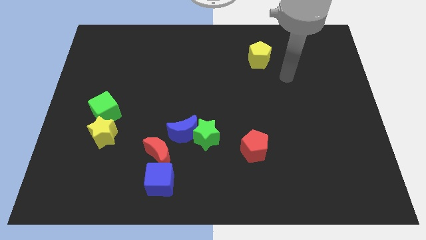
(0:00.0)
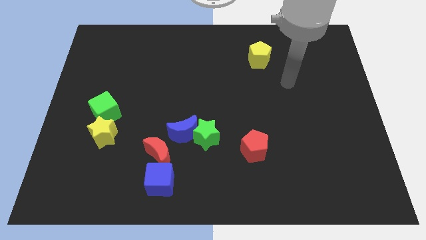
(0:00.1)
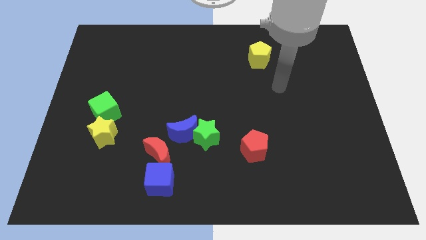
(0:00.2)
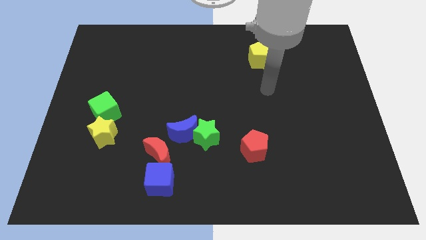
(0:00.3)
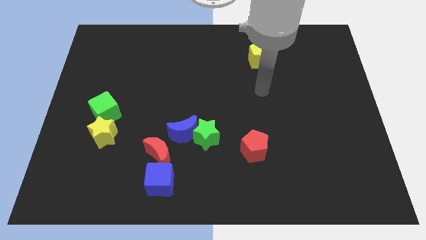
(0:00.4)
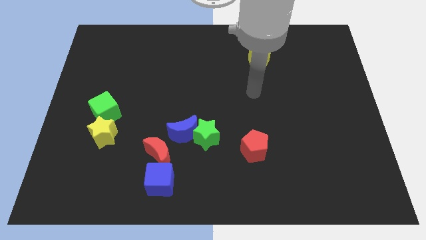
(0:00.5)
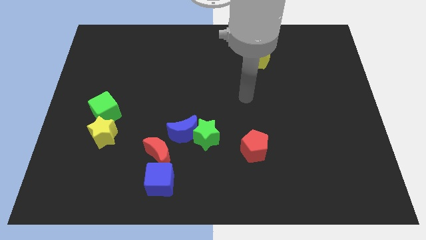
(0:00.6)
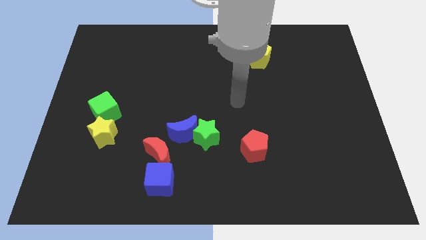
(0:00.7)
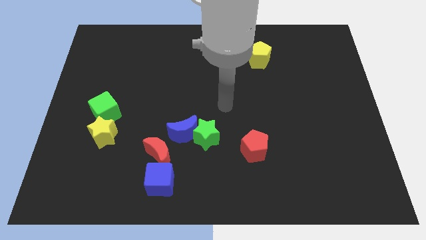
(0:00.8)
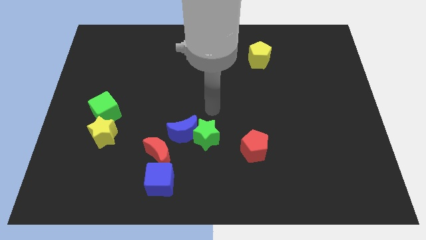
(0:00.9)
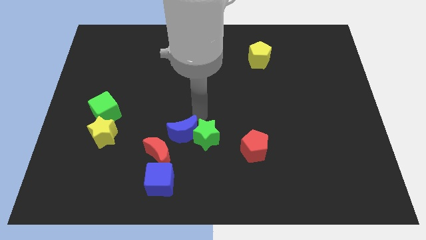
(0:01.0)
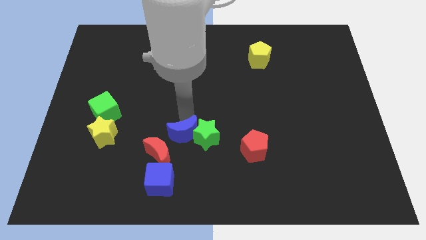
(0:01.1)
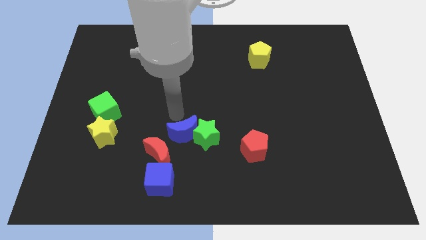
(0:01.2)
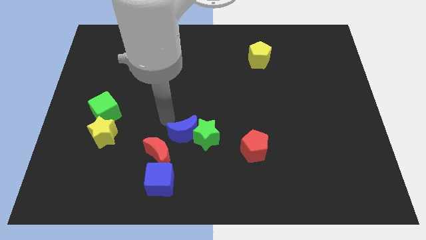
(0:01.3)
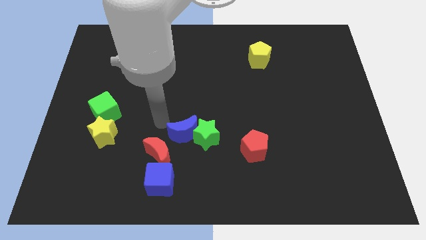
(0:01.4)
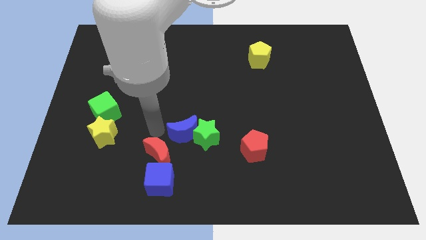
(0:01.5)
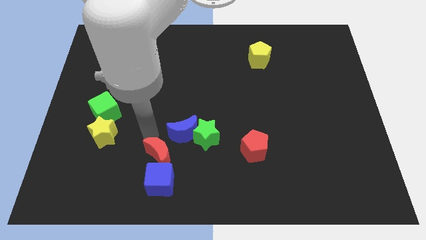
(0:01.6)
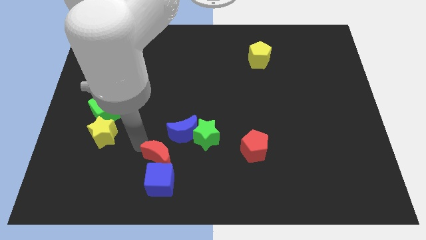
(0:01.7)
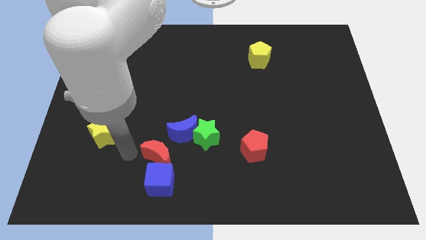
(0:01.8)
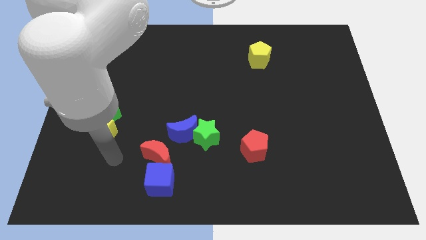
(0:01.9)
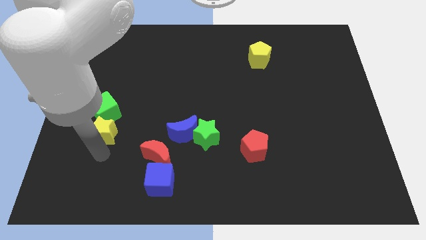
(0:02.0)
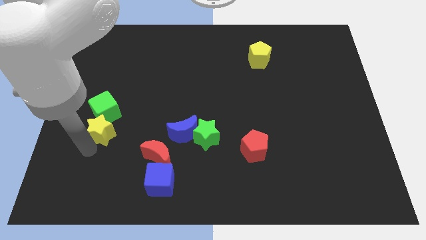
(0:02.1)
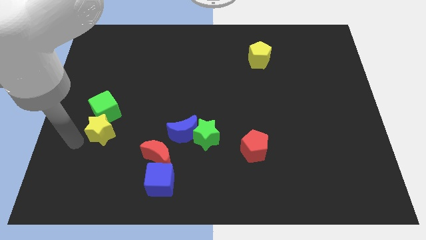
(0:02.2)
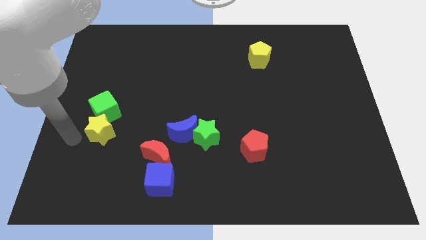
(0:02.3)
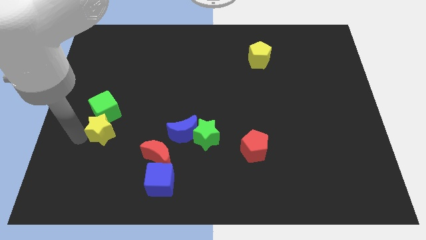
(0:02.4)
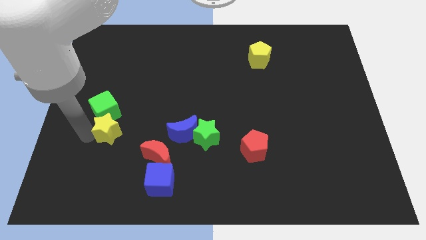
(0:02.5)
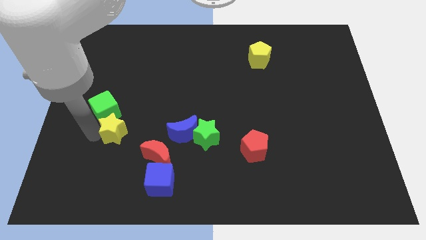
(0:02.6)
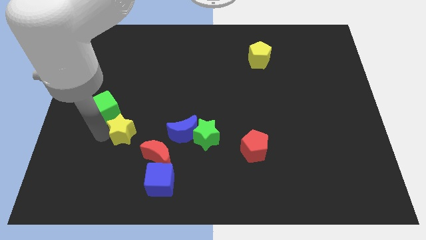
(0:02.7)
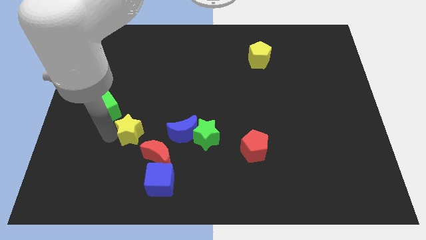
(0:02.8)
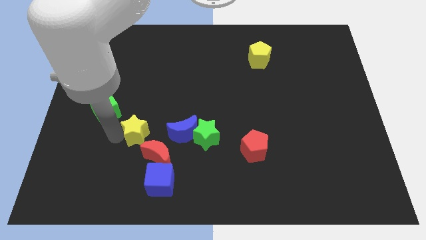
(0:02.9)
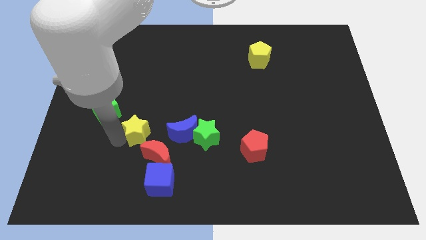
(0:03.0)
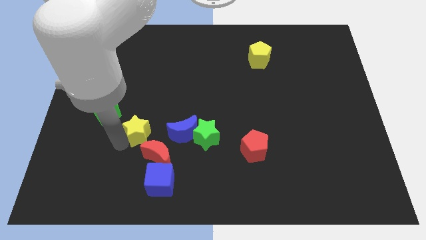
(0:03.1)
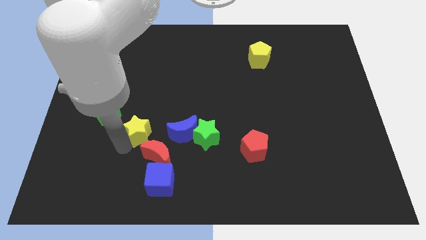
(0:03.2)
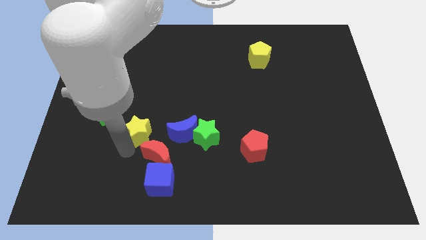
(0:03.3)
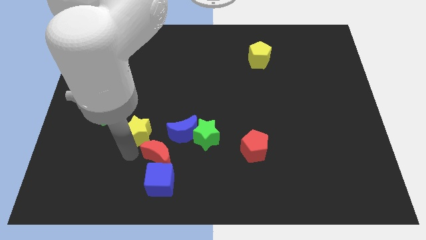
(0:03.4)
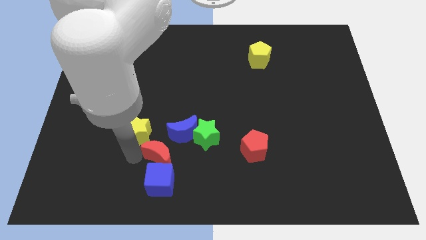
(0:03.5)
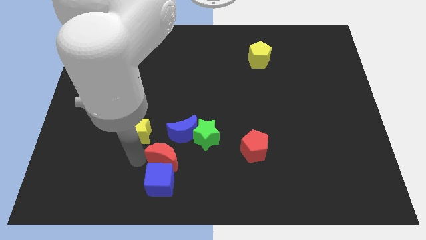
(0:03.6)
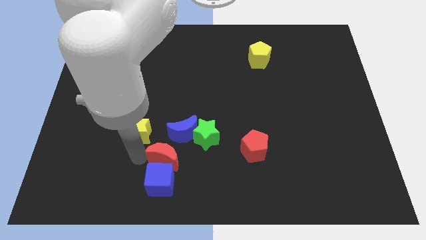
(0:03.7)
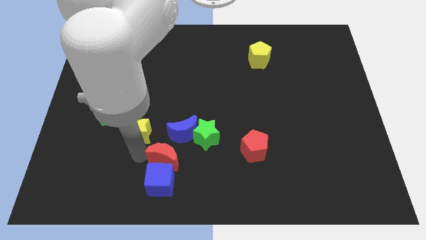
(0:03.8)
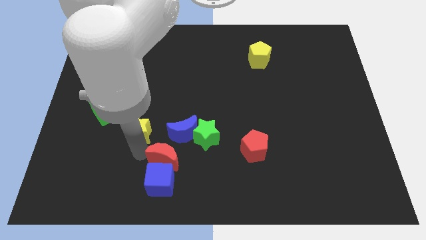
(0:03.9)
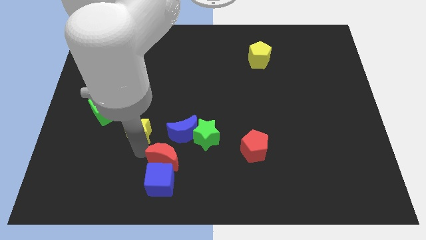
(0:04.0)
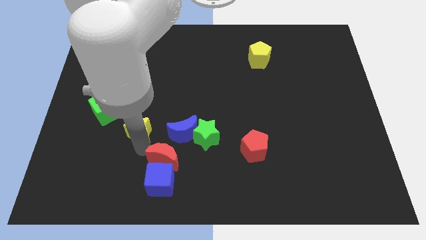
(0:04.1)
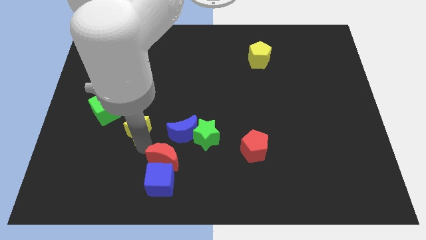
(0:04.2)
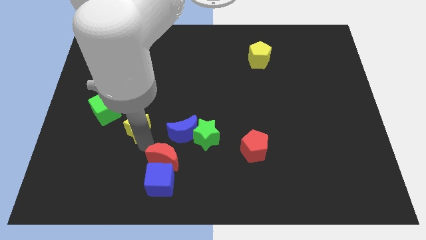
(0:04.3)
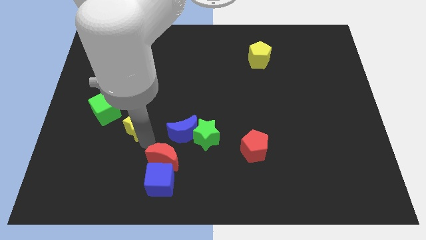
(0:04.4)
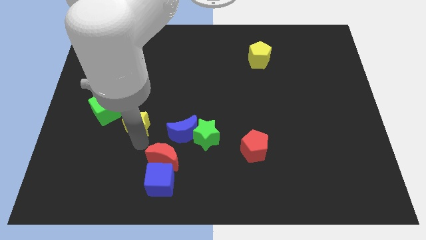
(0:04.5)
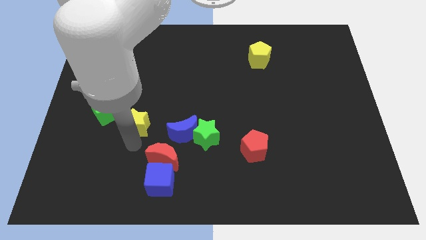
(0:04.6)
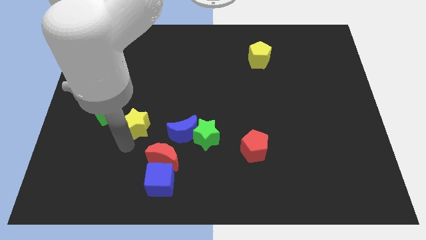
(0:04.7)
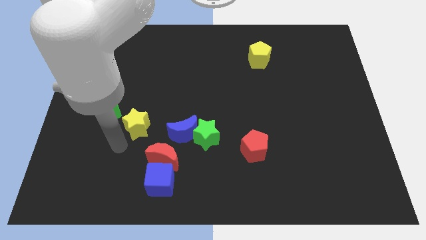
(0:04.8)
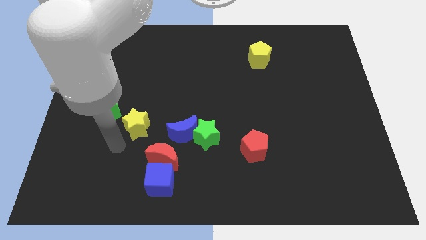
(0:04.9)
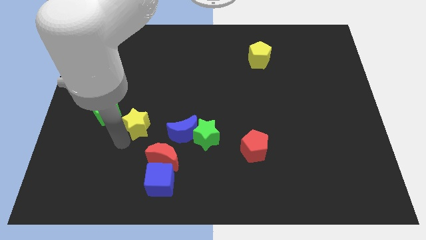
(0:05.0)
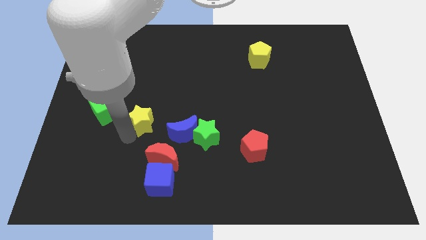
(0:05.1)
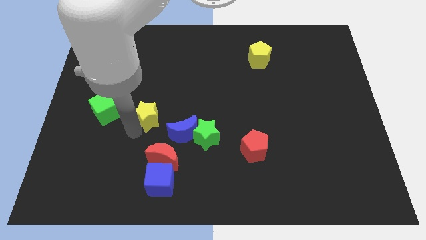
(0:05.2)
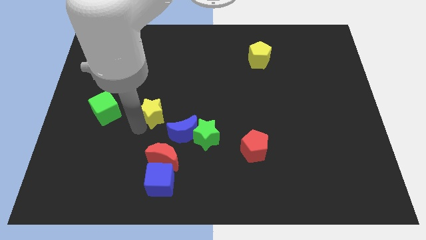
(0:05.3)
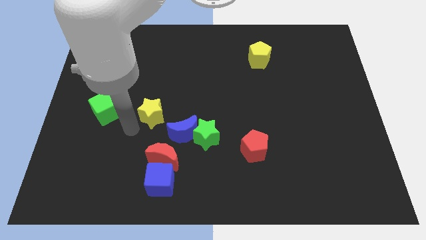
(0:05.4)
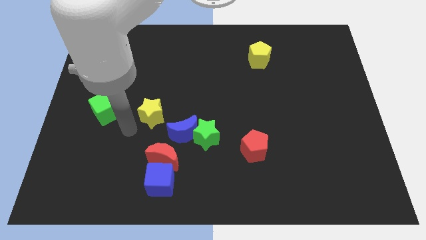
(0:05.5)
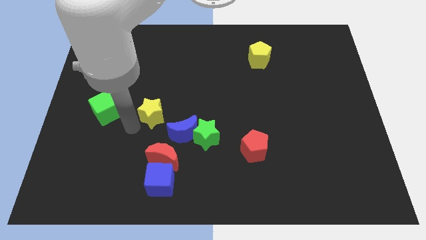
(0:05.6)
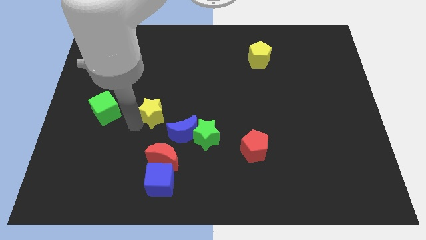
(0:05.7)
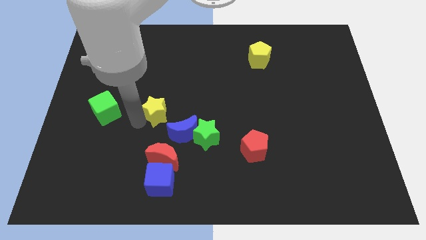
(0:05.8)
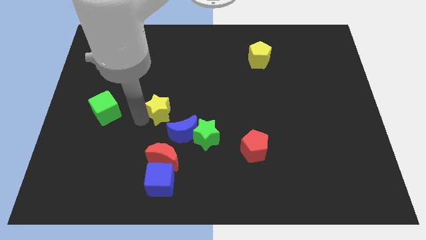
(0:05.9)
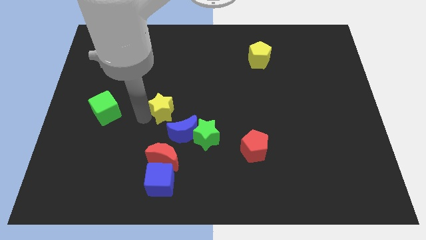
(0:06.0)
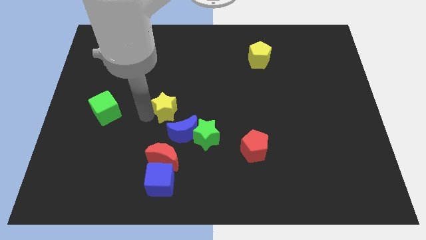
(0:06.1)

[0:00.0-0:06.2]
put the yellow star to the top of the blue moon
